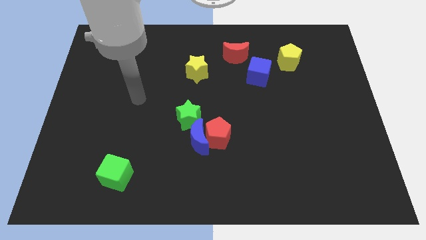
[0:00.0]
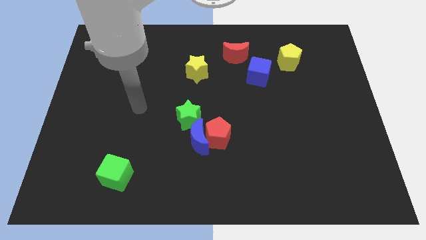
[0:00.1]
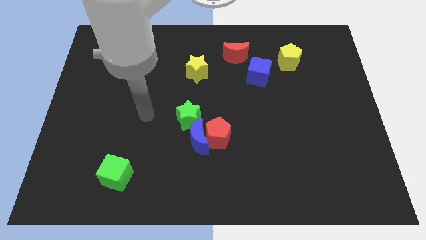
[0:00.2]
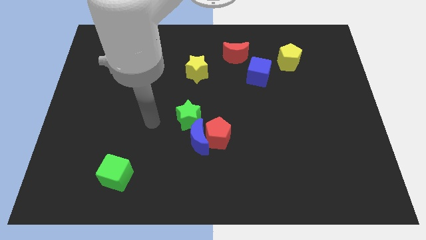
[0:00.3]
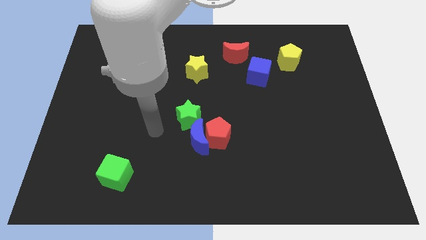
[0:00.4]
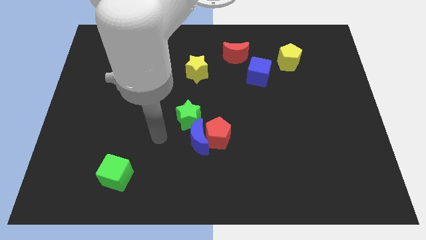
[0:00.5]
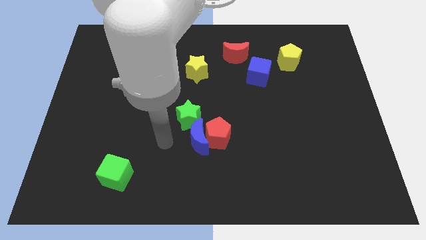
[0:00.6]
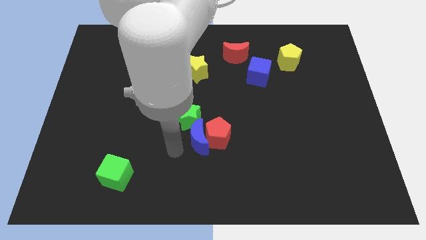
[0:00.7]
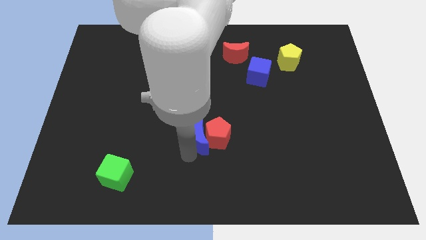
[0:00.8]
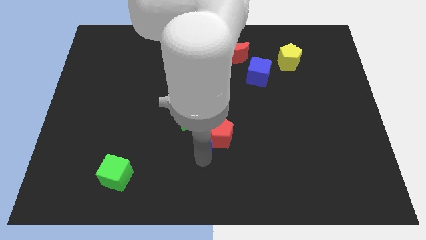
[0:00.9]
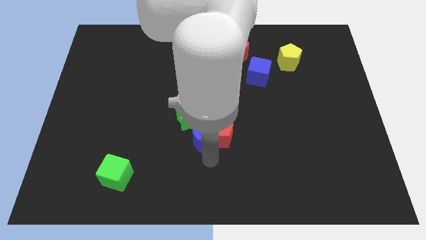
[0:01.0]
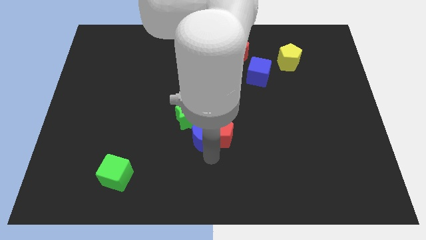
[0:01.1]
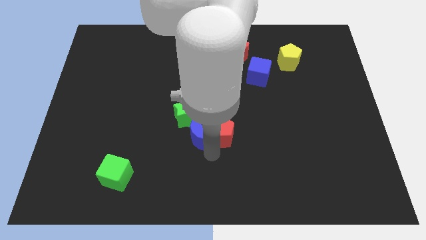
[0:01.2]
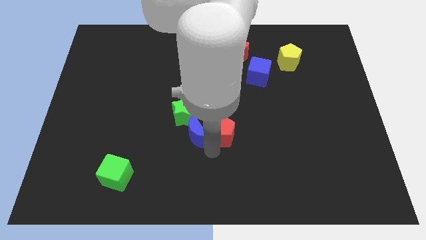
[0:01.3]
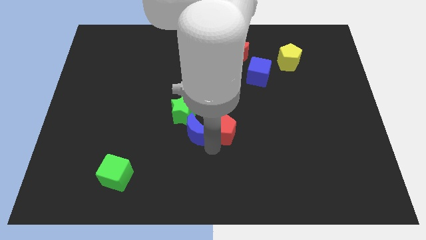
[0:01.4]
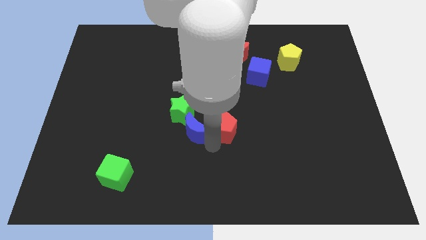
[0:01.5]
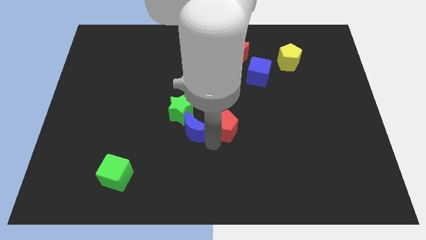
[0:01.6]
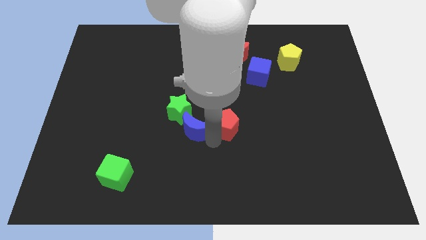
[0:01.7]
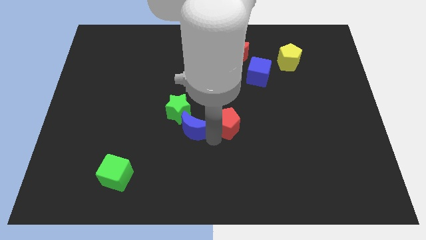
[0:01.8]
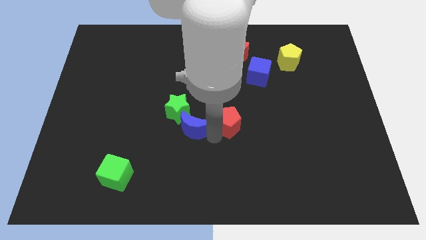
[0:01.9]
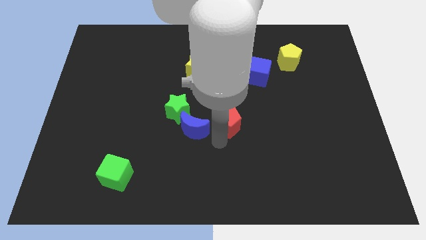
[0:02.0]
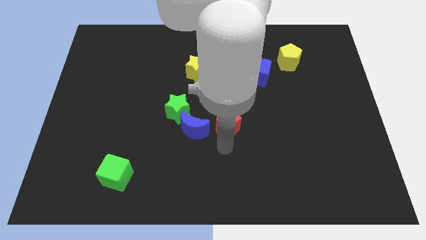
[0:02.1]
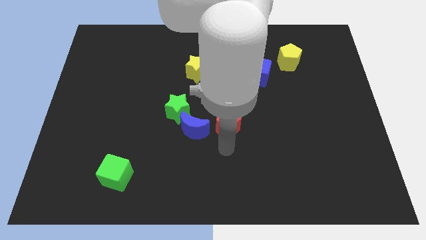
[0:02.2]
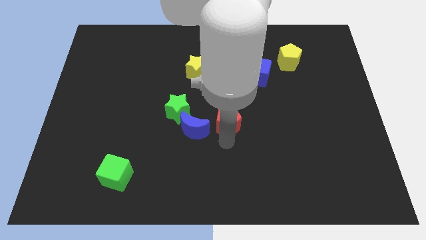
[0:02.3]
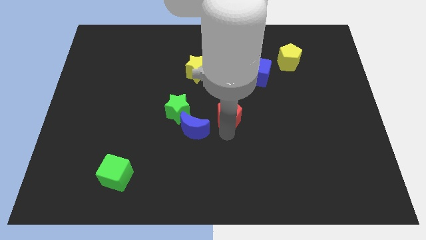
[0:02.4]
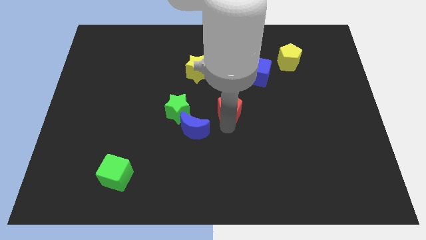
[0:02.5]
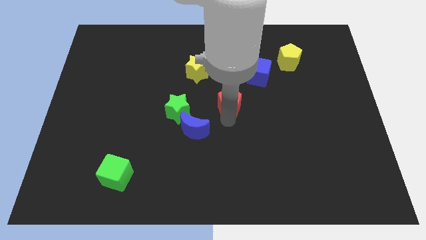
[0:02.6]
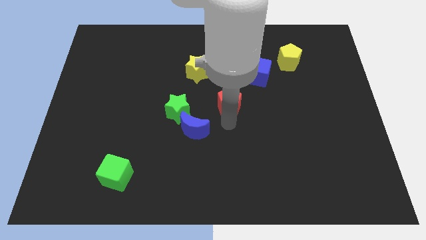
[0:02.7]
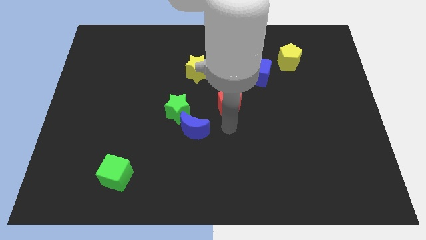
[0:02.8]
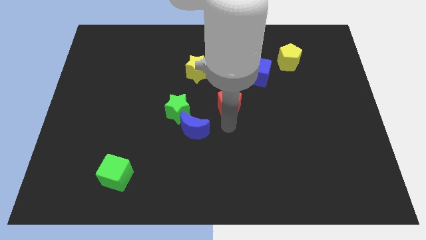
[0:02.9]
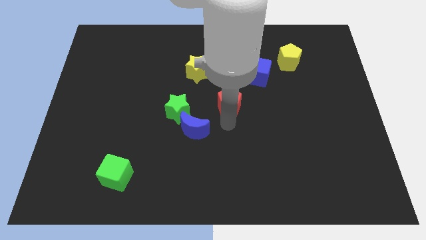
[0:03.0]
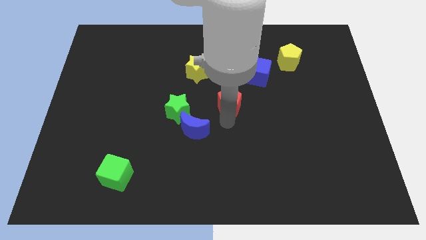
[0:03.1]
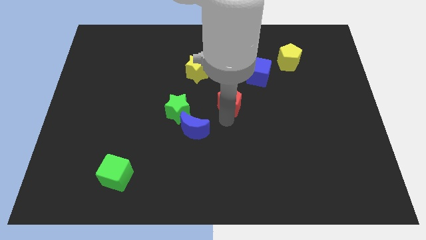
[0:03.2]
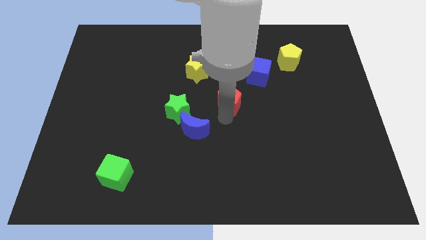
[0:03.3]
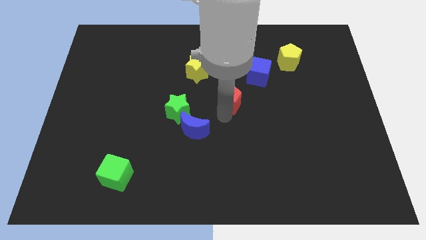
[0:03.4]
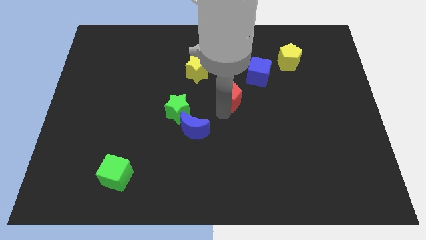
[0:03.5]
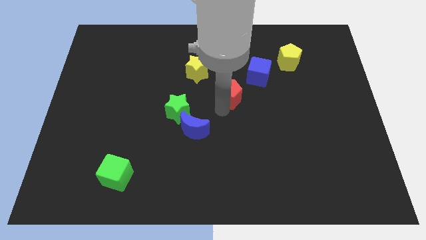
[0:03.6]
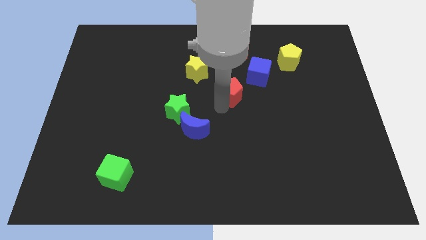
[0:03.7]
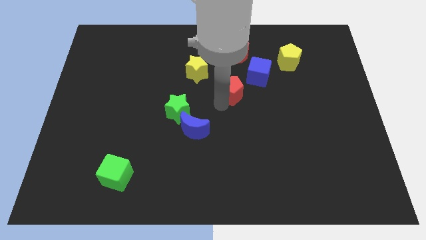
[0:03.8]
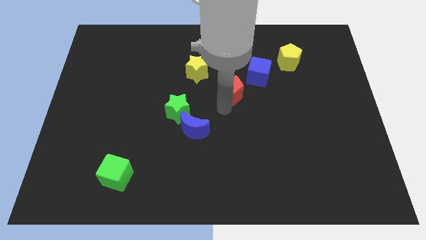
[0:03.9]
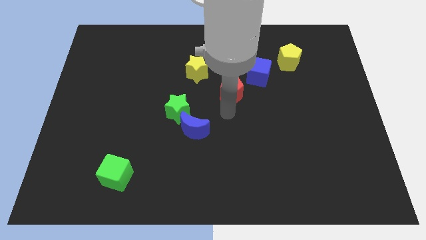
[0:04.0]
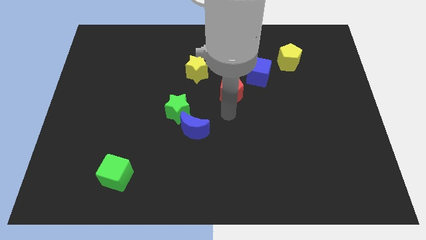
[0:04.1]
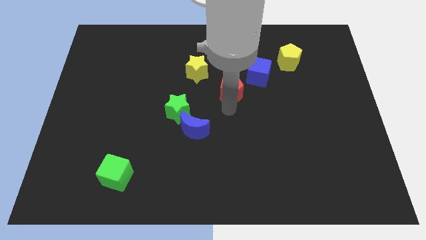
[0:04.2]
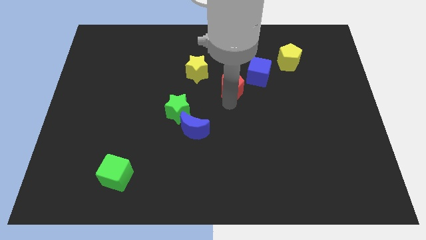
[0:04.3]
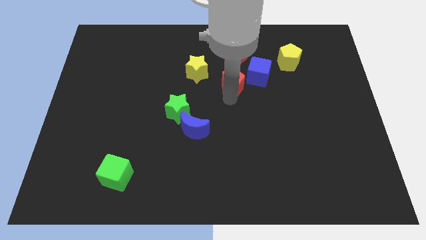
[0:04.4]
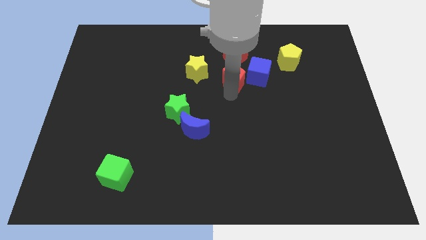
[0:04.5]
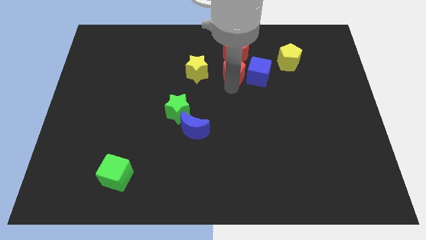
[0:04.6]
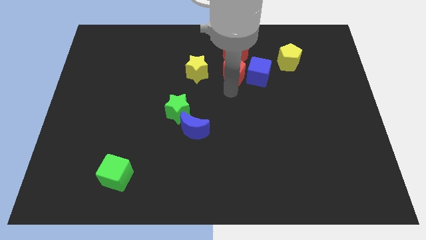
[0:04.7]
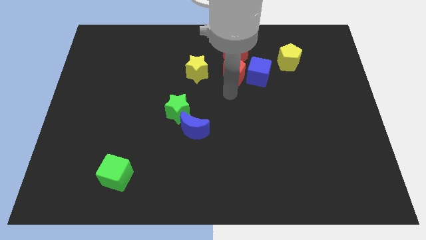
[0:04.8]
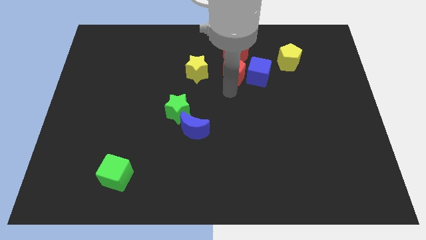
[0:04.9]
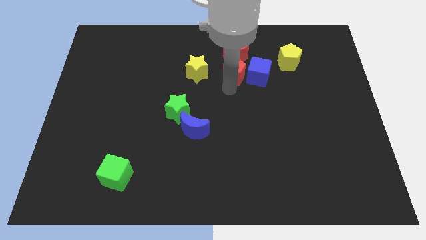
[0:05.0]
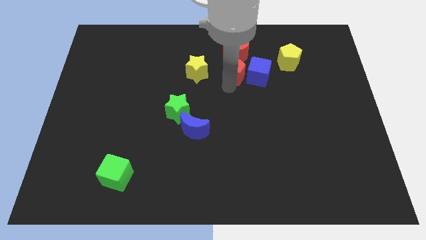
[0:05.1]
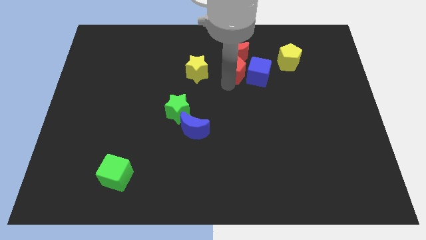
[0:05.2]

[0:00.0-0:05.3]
push the red pentagon towards the red moon

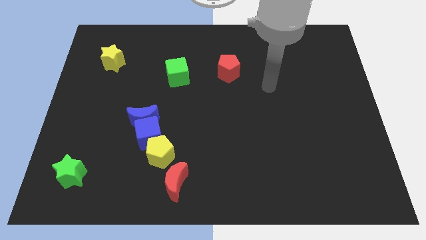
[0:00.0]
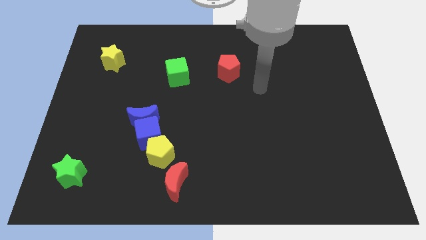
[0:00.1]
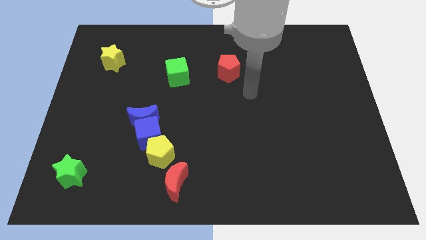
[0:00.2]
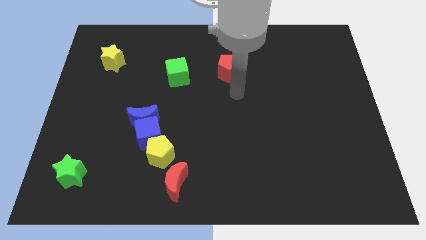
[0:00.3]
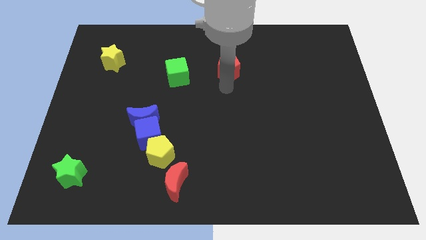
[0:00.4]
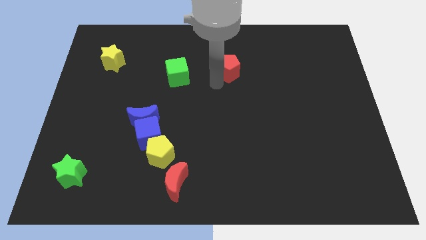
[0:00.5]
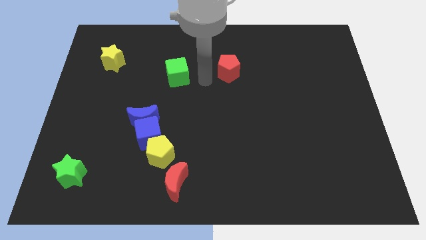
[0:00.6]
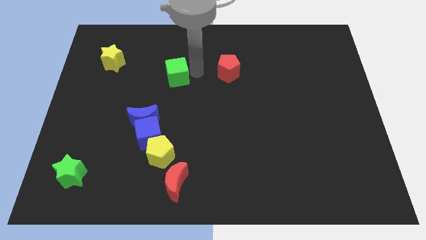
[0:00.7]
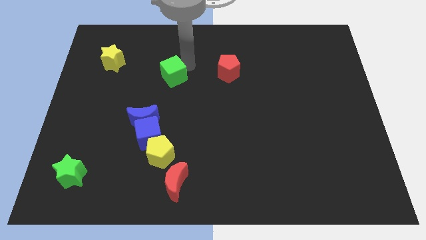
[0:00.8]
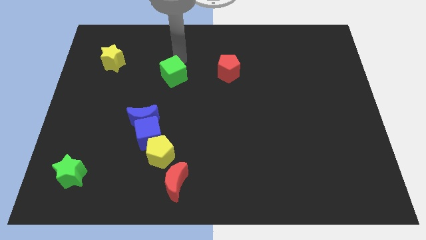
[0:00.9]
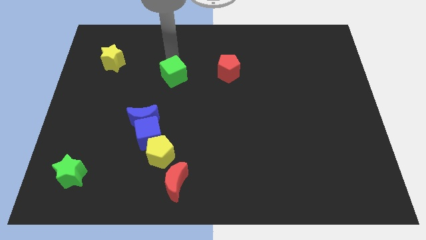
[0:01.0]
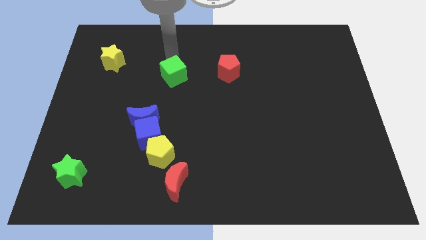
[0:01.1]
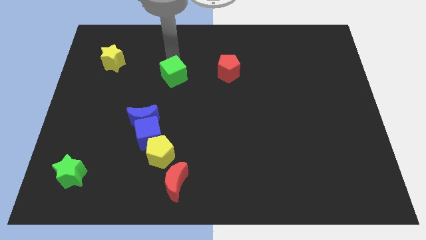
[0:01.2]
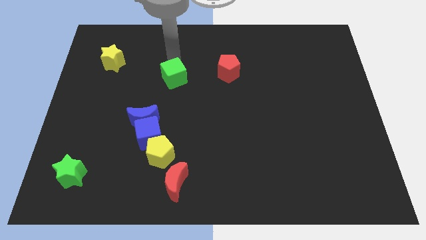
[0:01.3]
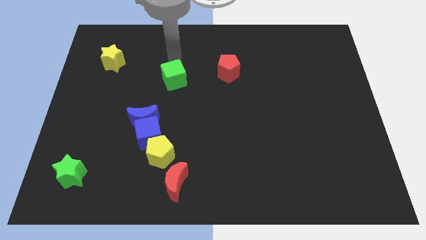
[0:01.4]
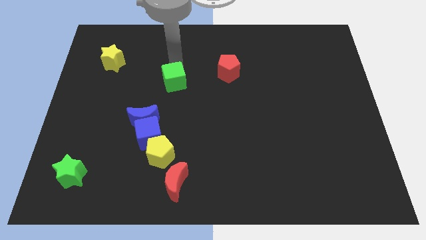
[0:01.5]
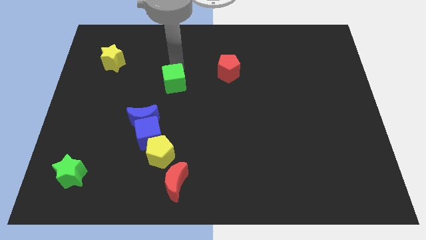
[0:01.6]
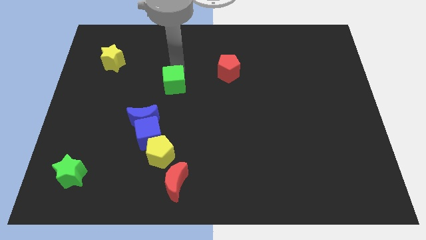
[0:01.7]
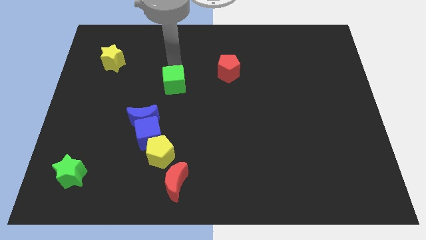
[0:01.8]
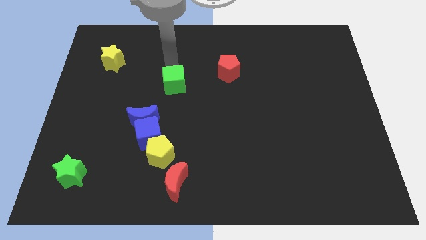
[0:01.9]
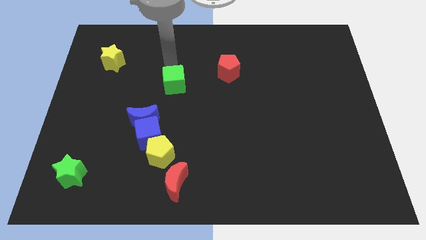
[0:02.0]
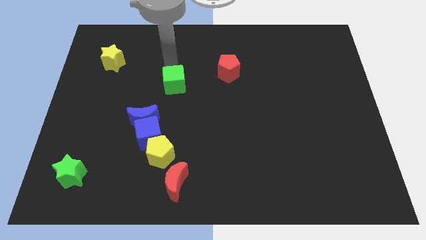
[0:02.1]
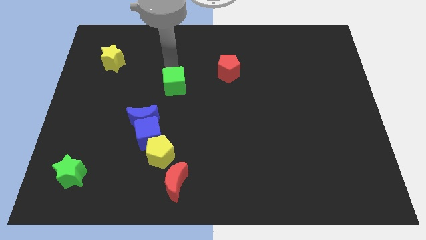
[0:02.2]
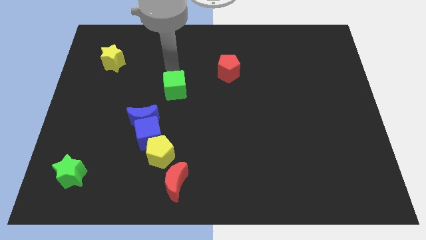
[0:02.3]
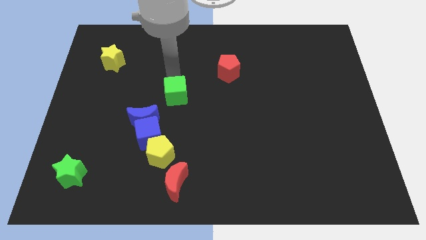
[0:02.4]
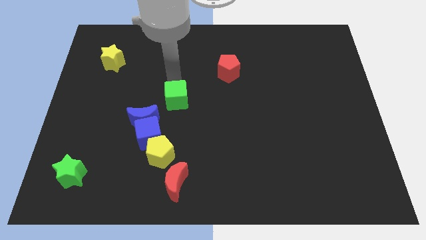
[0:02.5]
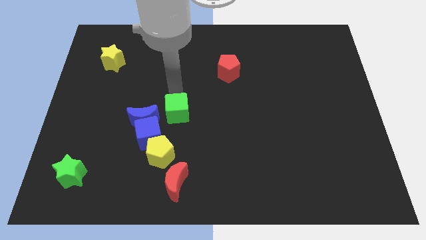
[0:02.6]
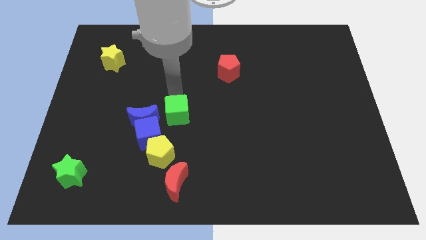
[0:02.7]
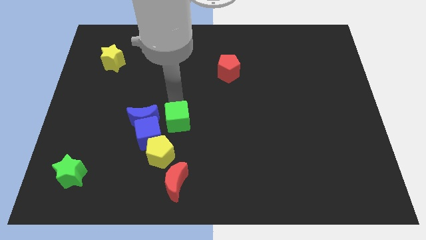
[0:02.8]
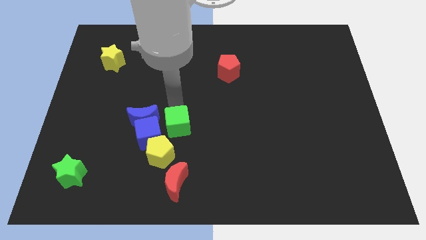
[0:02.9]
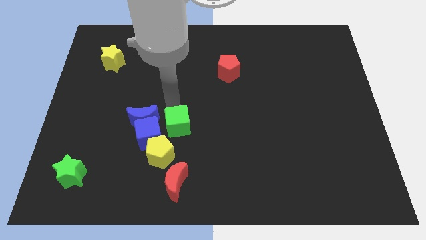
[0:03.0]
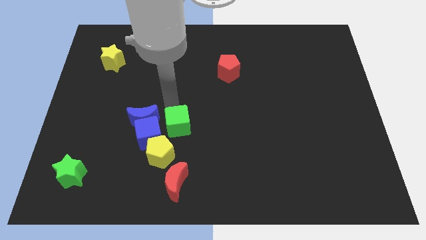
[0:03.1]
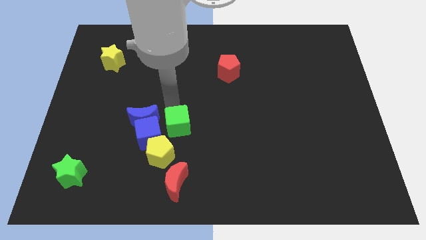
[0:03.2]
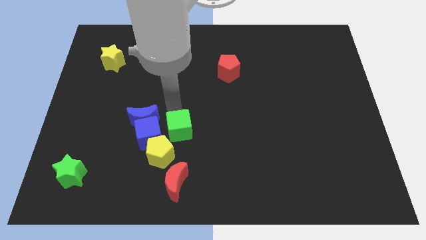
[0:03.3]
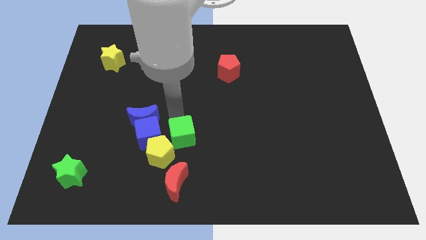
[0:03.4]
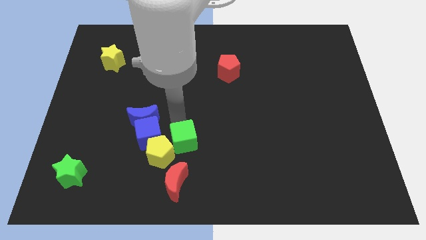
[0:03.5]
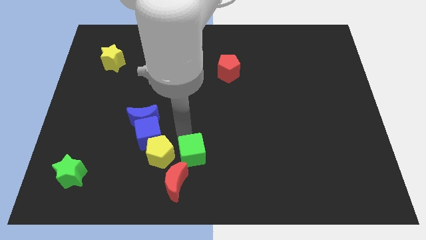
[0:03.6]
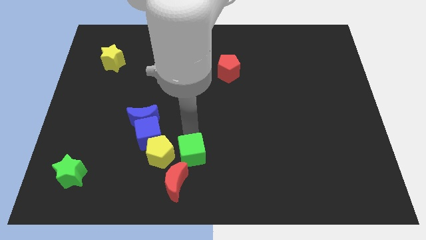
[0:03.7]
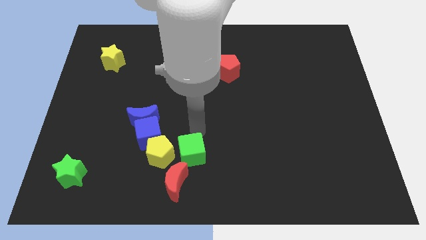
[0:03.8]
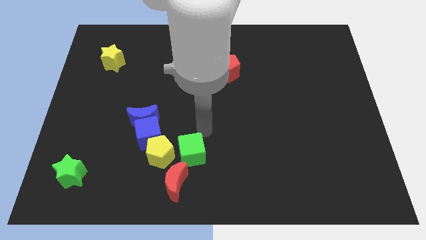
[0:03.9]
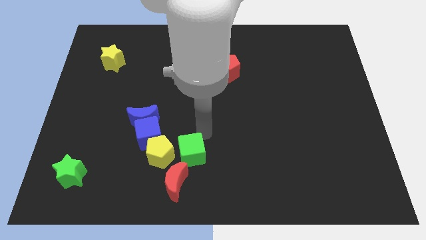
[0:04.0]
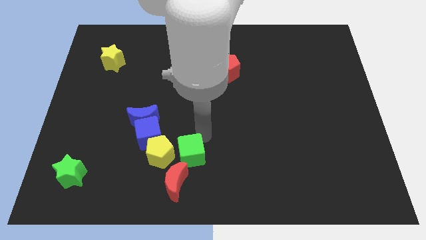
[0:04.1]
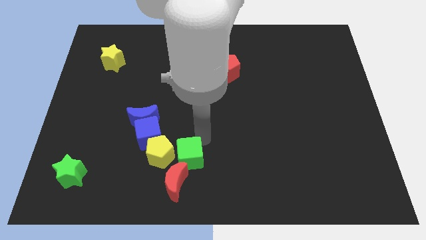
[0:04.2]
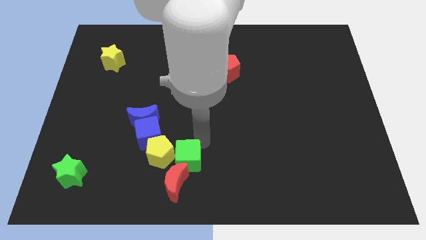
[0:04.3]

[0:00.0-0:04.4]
slide the green cube towards the red moon
